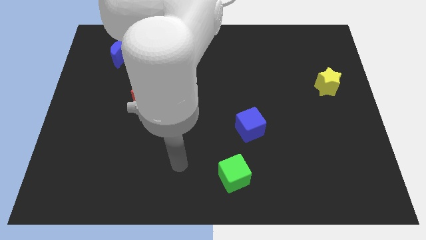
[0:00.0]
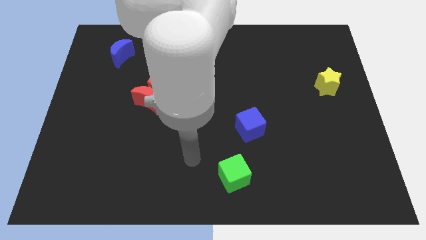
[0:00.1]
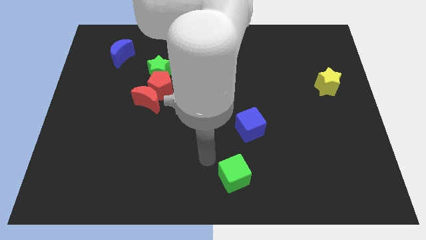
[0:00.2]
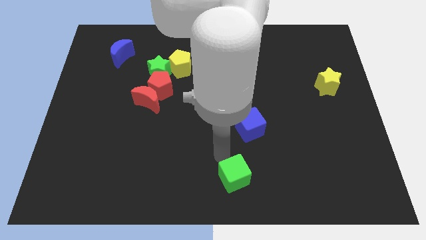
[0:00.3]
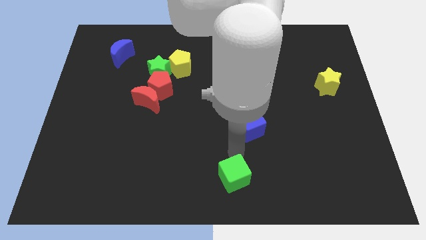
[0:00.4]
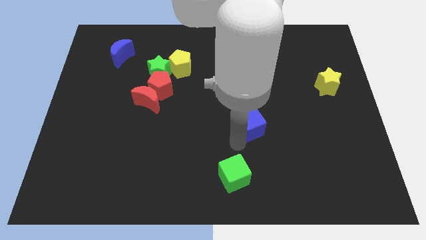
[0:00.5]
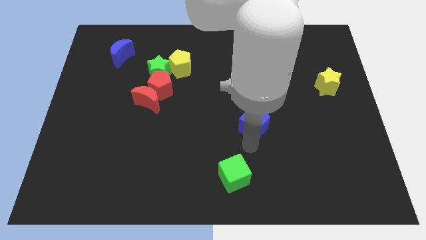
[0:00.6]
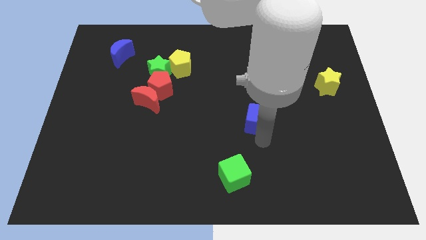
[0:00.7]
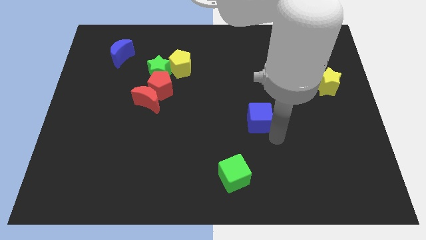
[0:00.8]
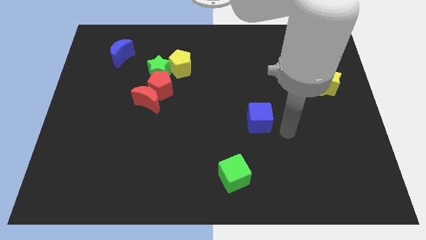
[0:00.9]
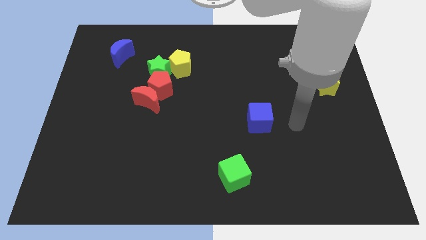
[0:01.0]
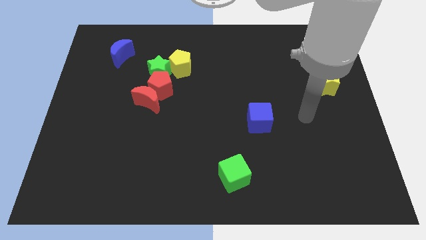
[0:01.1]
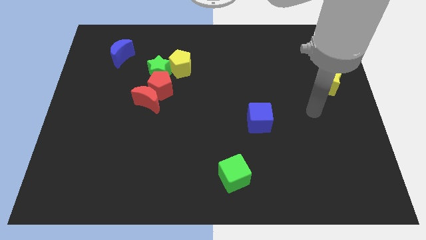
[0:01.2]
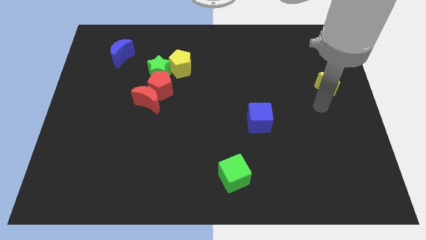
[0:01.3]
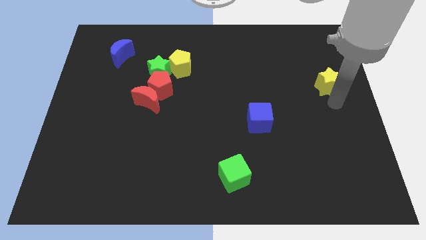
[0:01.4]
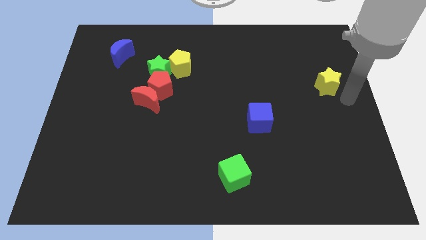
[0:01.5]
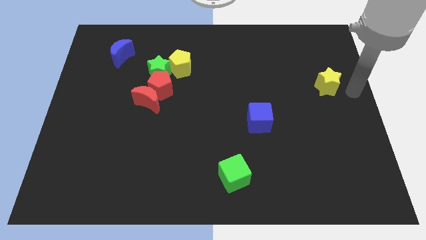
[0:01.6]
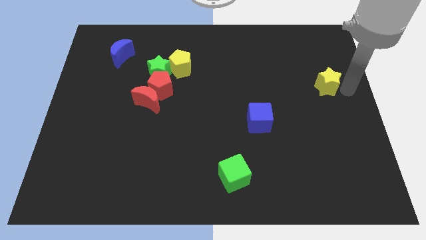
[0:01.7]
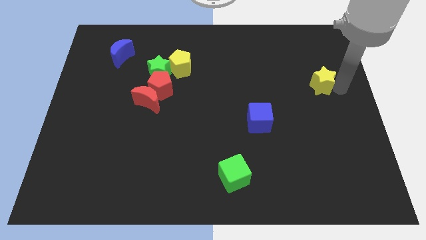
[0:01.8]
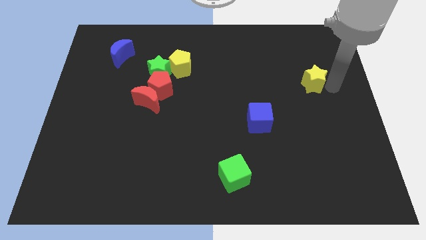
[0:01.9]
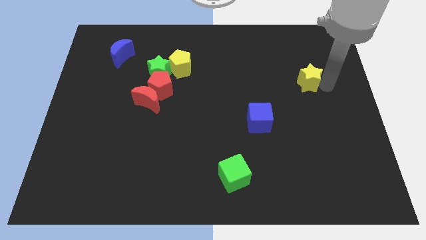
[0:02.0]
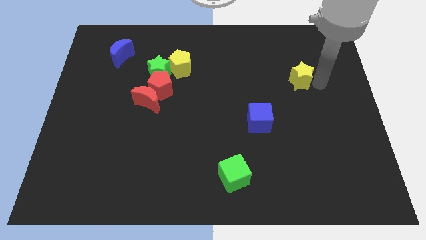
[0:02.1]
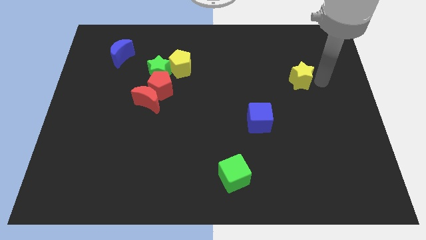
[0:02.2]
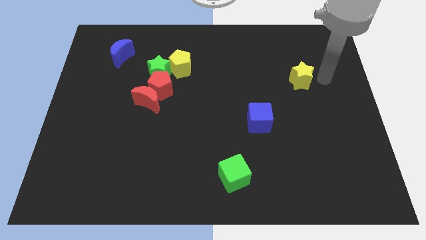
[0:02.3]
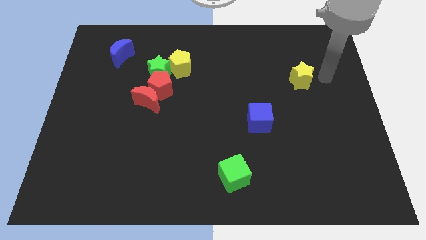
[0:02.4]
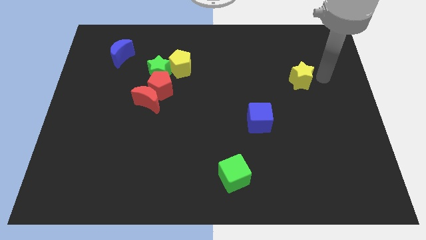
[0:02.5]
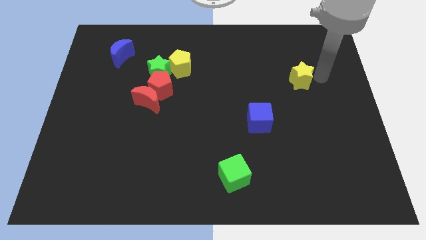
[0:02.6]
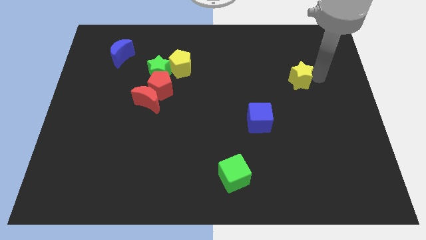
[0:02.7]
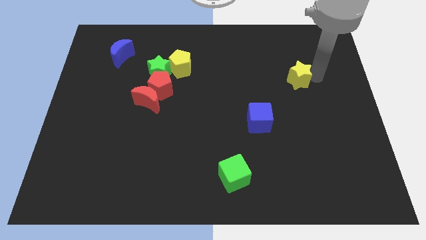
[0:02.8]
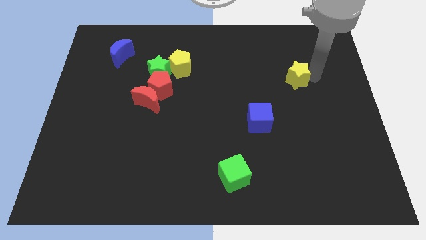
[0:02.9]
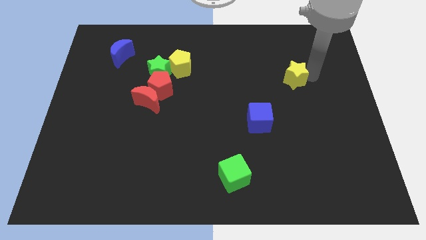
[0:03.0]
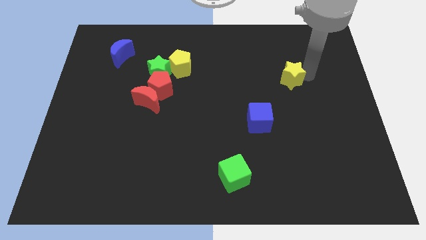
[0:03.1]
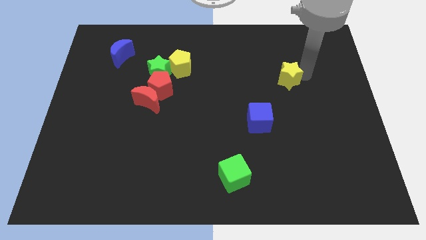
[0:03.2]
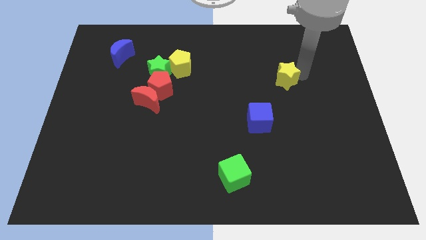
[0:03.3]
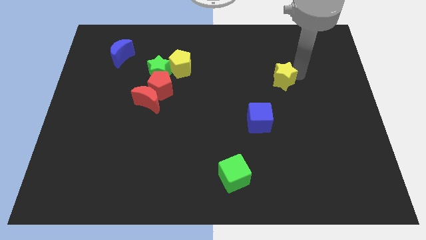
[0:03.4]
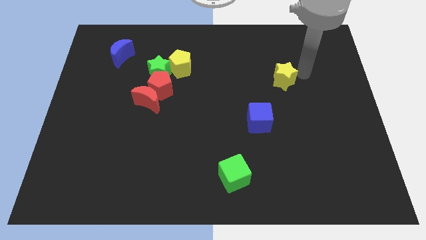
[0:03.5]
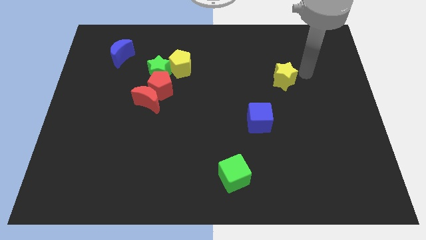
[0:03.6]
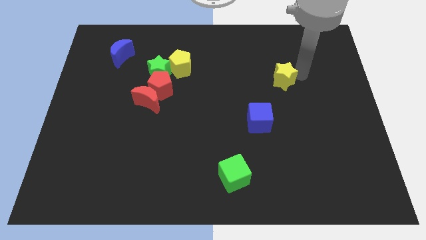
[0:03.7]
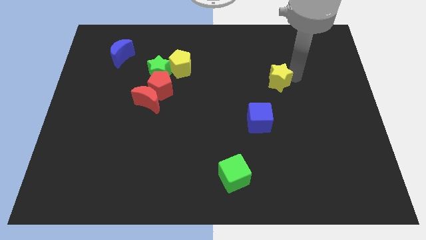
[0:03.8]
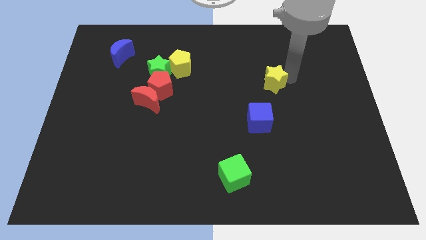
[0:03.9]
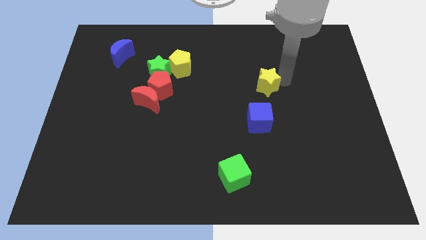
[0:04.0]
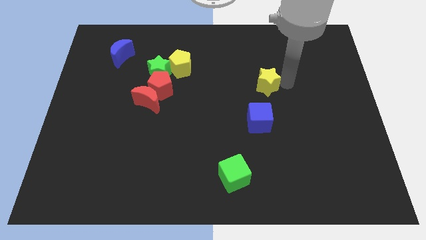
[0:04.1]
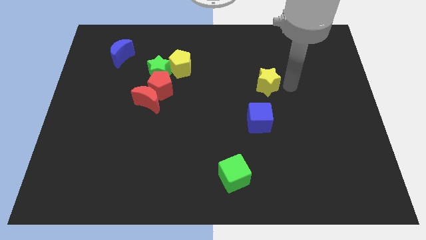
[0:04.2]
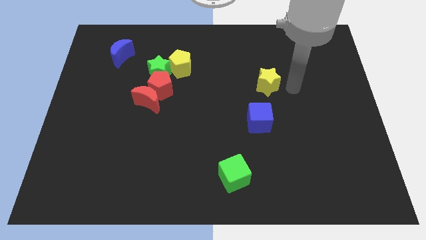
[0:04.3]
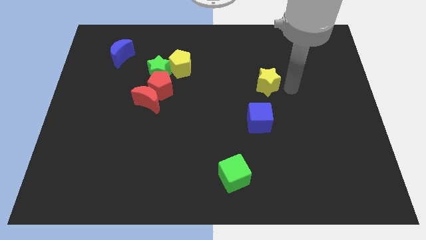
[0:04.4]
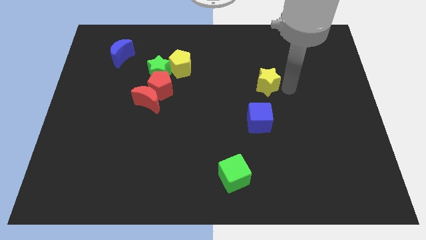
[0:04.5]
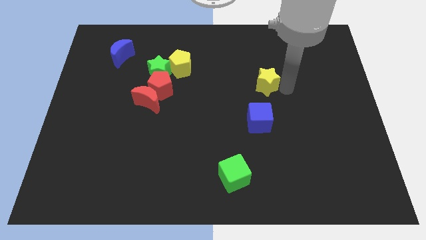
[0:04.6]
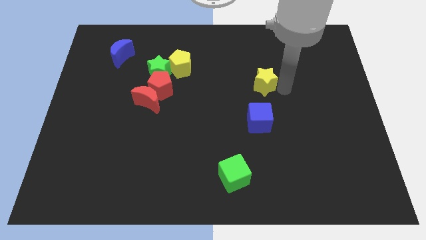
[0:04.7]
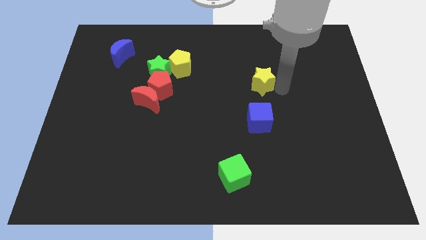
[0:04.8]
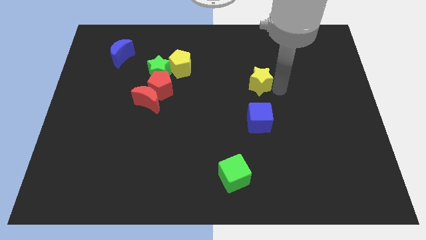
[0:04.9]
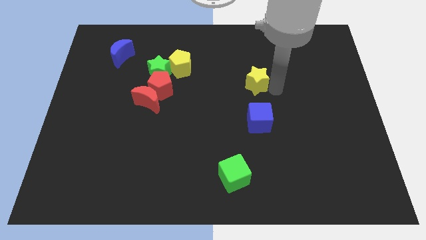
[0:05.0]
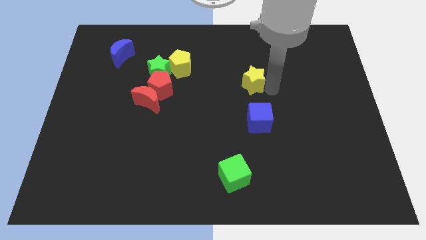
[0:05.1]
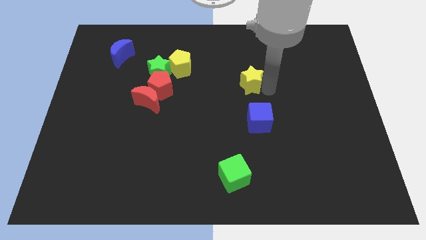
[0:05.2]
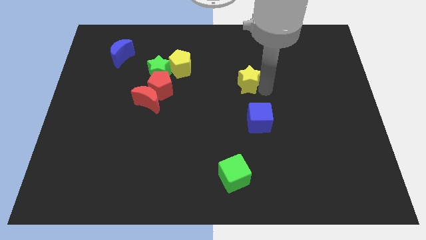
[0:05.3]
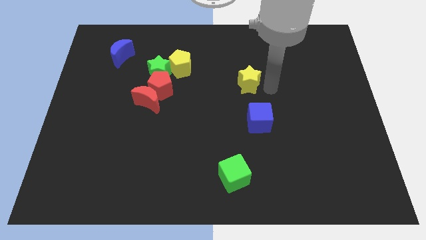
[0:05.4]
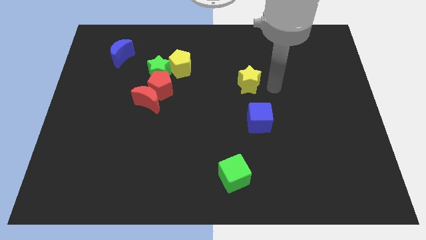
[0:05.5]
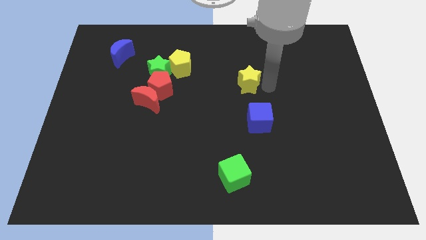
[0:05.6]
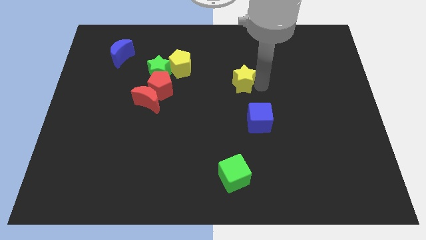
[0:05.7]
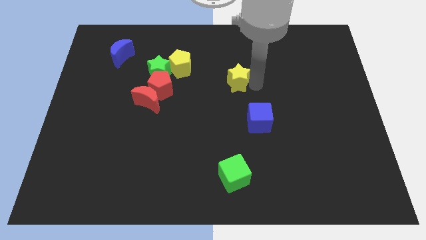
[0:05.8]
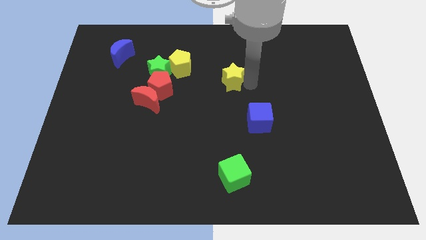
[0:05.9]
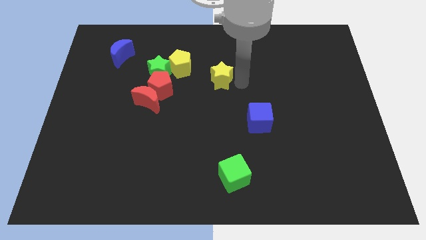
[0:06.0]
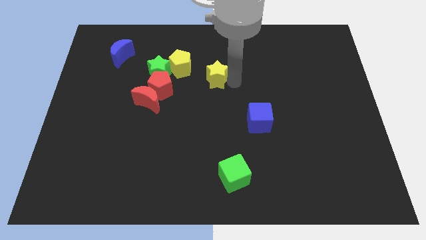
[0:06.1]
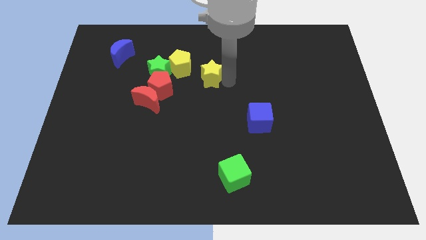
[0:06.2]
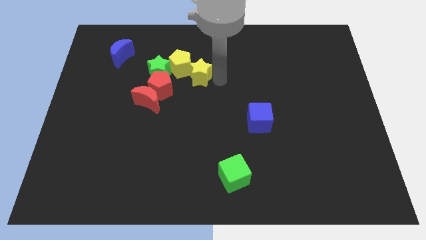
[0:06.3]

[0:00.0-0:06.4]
slide the yellow star close to the yellow pentagon

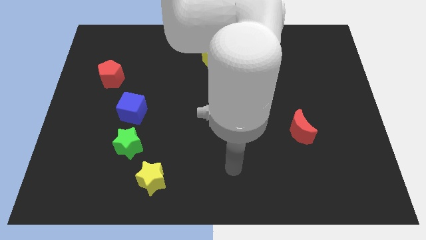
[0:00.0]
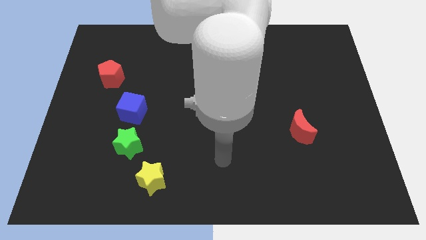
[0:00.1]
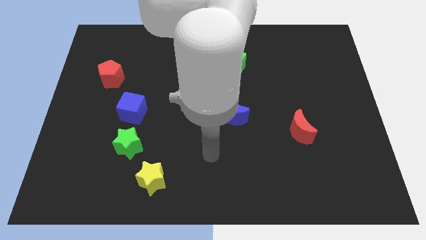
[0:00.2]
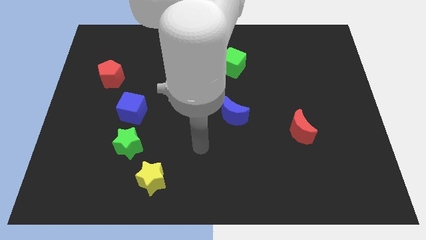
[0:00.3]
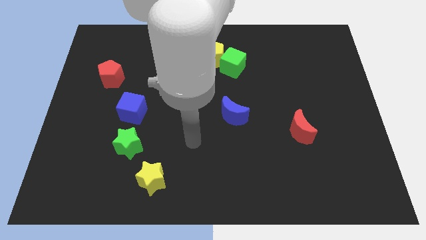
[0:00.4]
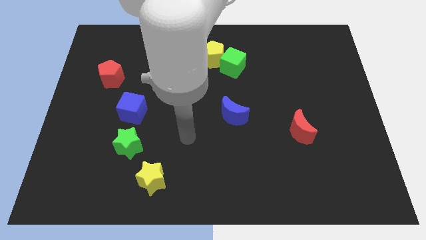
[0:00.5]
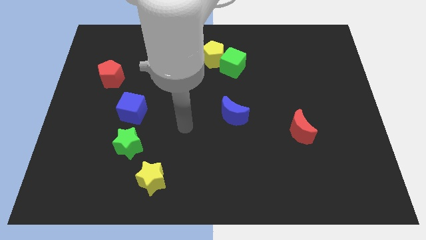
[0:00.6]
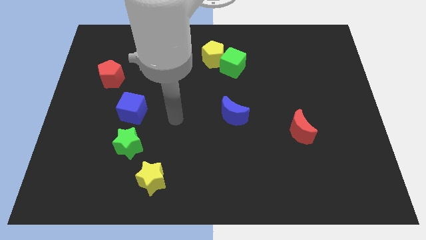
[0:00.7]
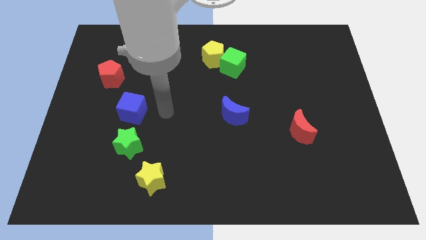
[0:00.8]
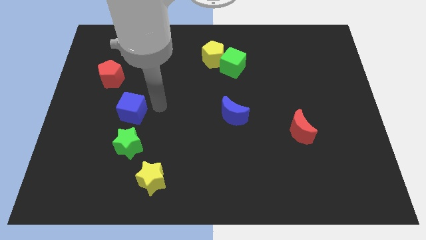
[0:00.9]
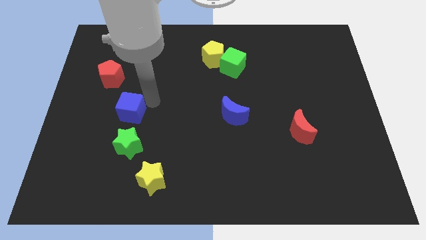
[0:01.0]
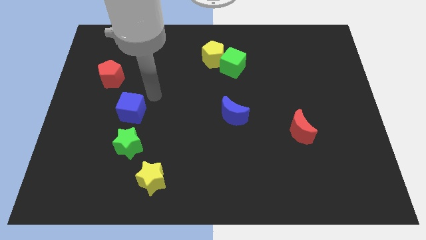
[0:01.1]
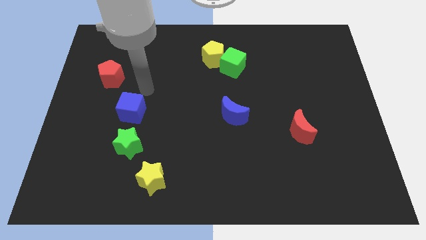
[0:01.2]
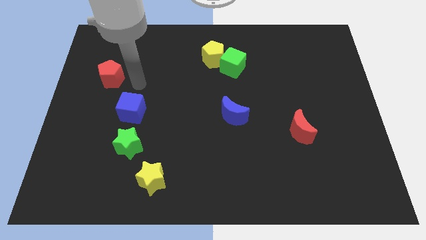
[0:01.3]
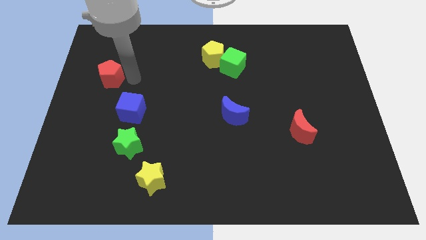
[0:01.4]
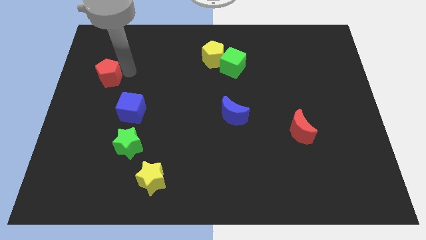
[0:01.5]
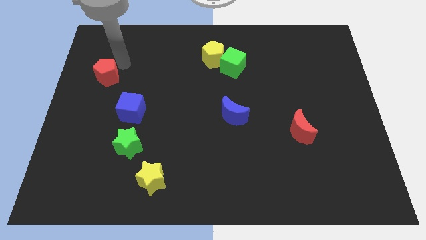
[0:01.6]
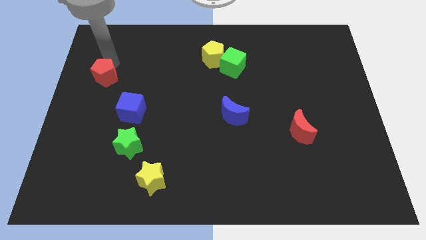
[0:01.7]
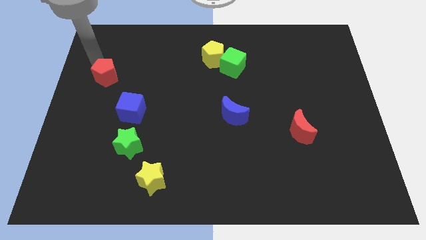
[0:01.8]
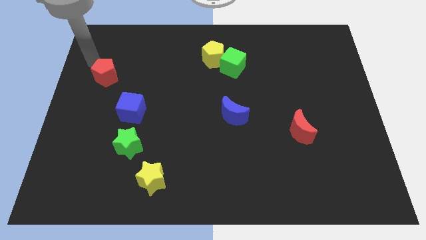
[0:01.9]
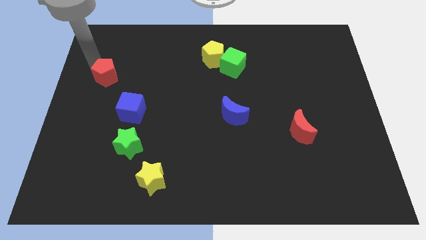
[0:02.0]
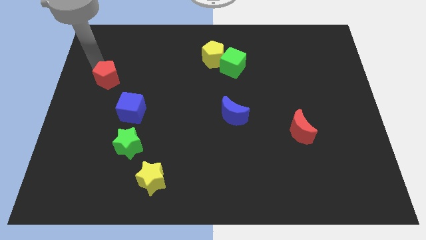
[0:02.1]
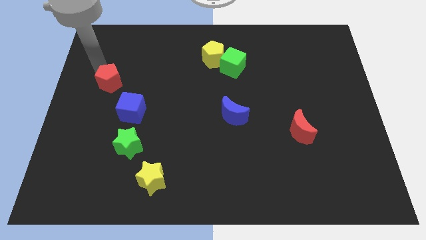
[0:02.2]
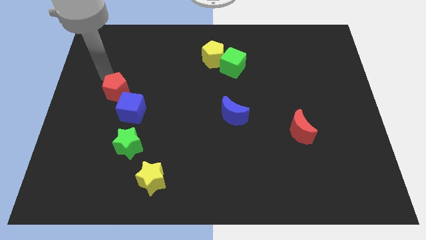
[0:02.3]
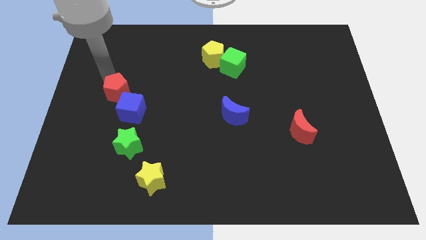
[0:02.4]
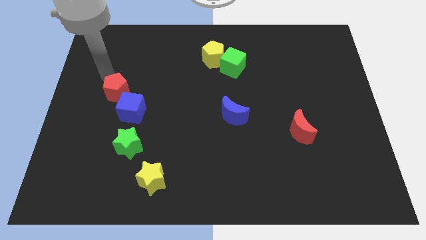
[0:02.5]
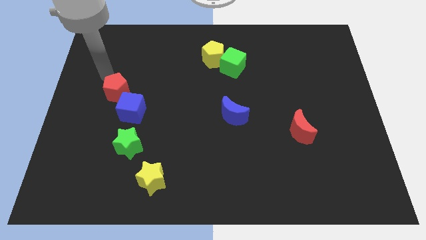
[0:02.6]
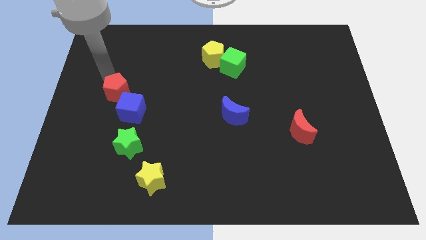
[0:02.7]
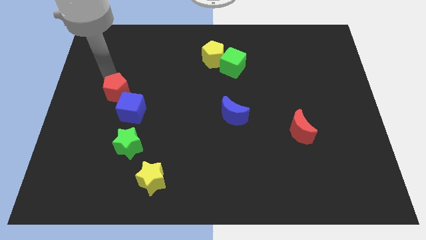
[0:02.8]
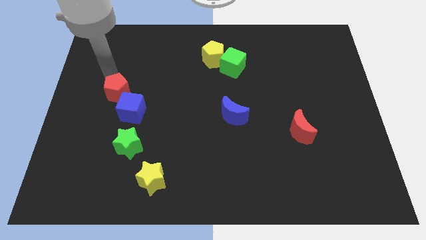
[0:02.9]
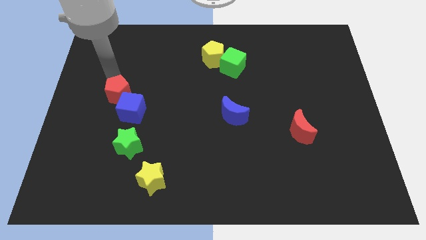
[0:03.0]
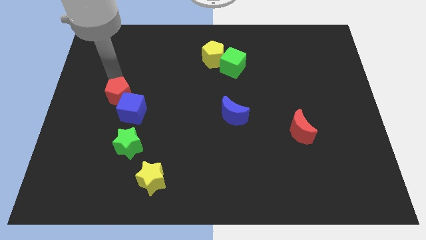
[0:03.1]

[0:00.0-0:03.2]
put the red pentagon close to the blue cube
